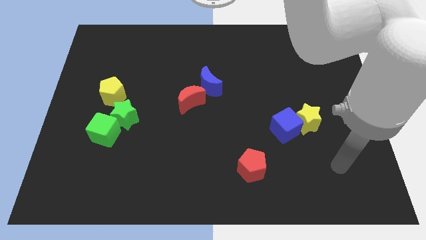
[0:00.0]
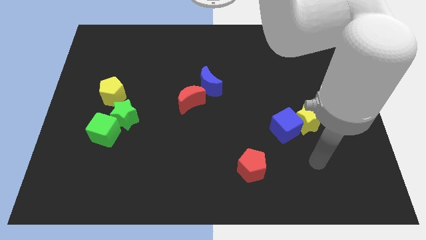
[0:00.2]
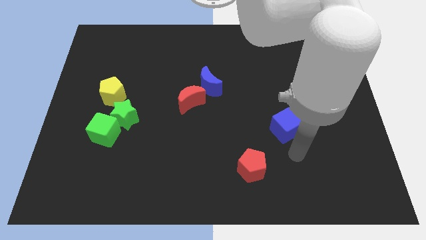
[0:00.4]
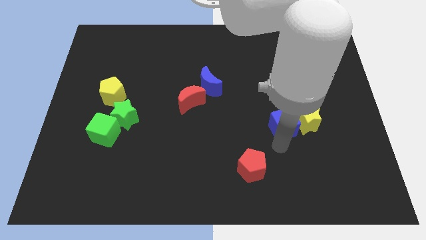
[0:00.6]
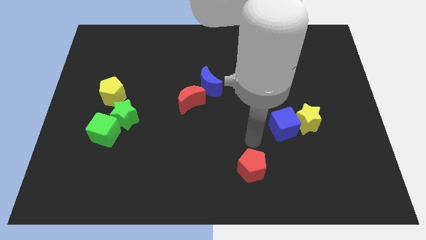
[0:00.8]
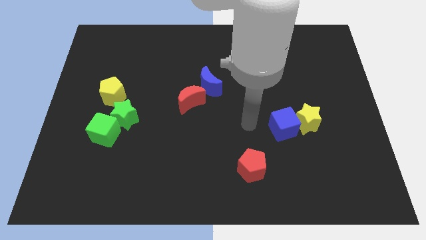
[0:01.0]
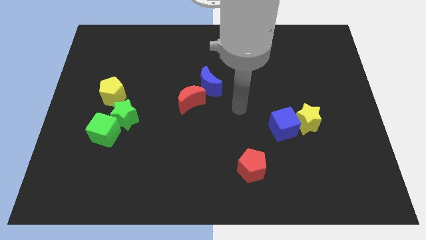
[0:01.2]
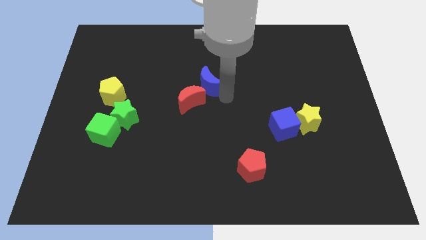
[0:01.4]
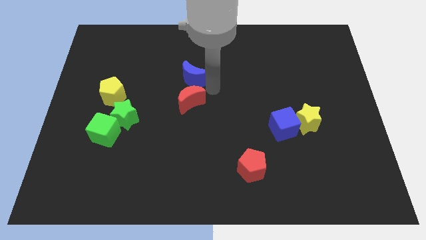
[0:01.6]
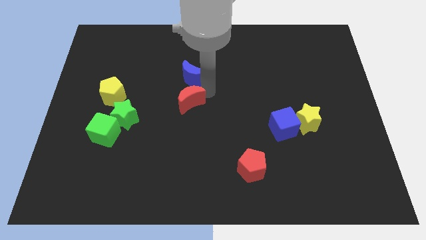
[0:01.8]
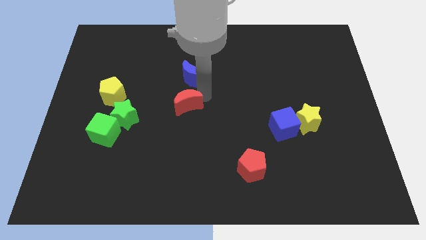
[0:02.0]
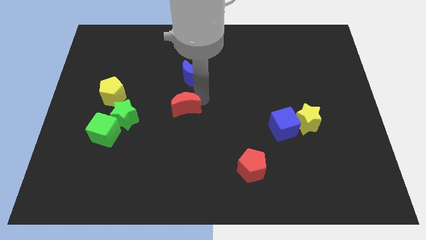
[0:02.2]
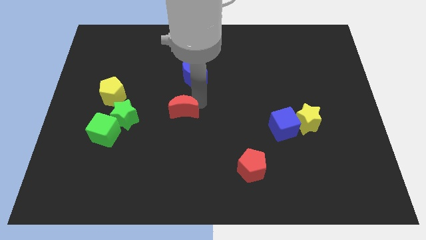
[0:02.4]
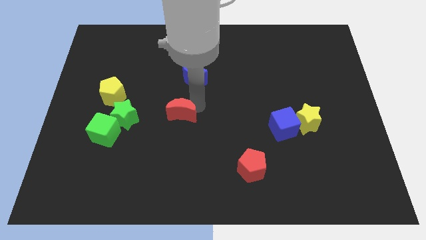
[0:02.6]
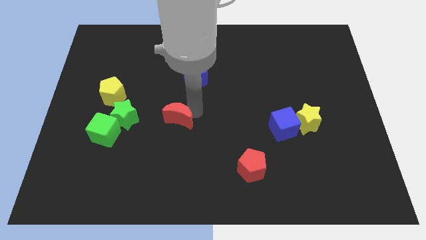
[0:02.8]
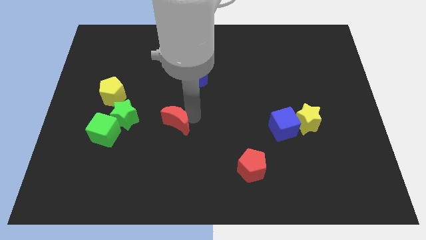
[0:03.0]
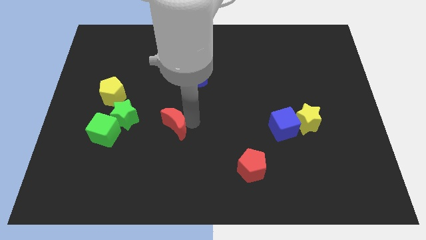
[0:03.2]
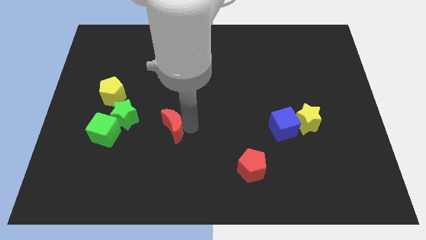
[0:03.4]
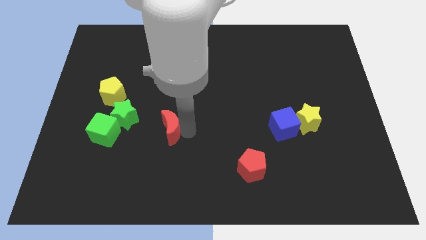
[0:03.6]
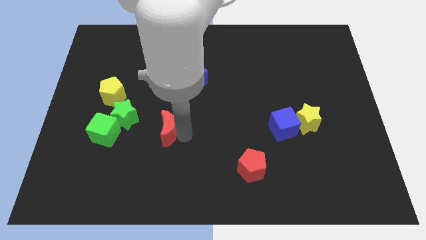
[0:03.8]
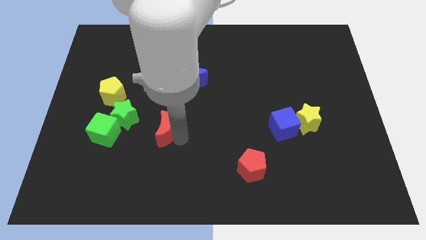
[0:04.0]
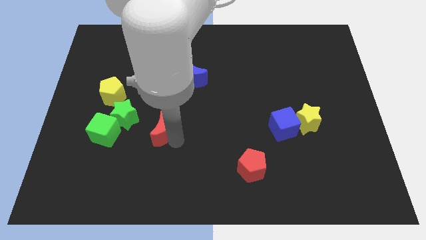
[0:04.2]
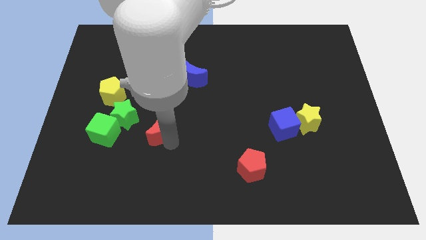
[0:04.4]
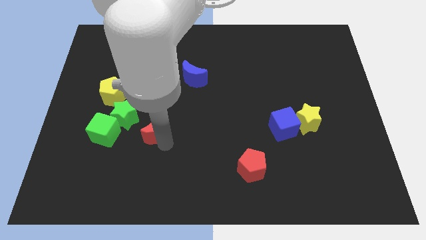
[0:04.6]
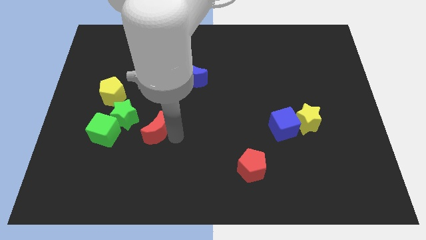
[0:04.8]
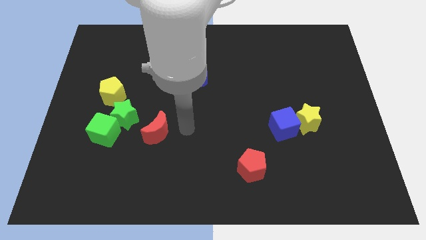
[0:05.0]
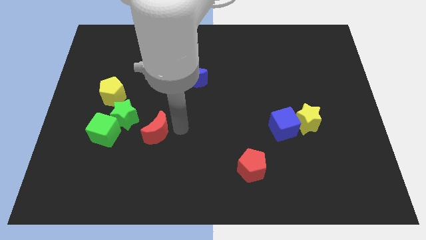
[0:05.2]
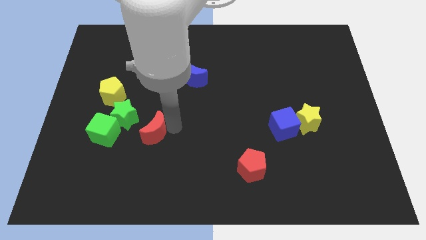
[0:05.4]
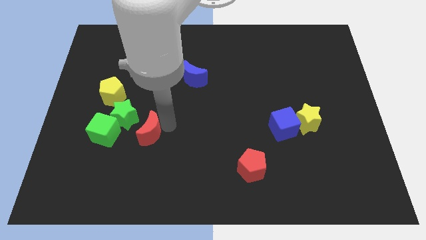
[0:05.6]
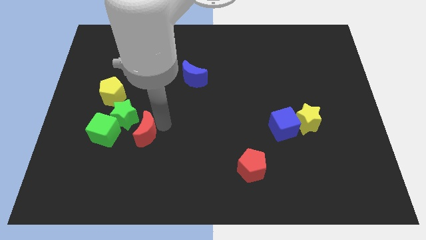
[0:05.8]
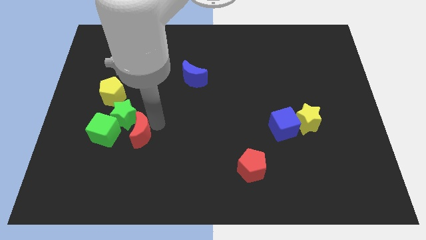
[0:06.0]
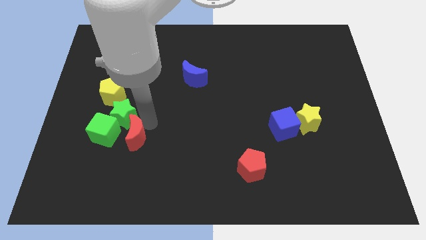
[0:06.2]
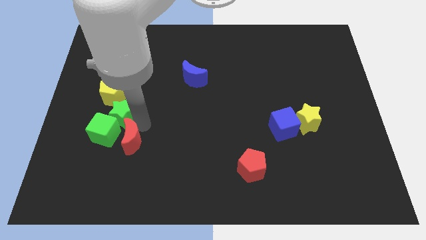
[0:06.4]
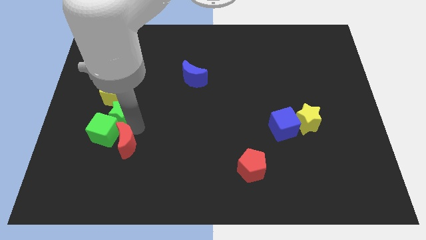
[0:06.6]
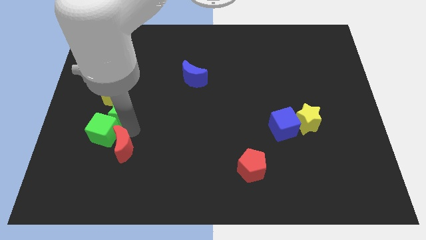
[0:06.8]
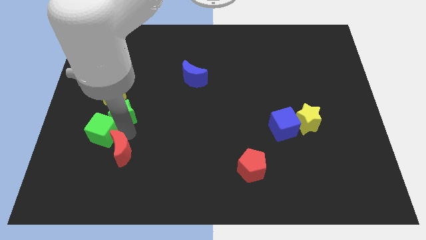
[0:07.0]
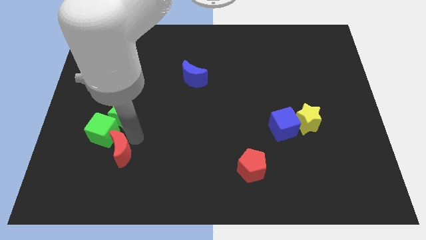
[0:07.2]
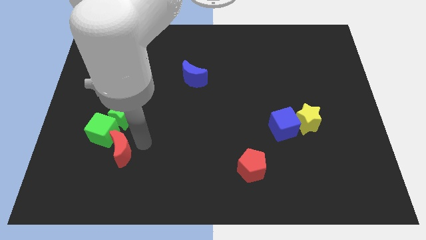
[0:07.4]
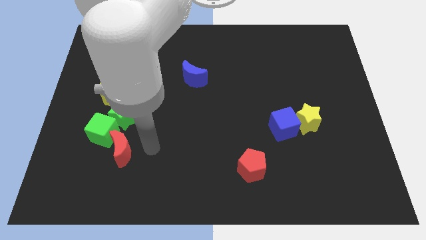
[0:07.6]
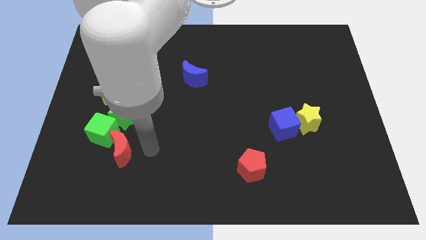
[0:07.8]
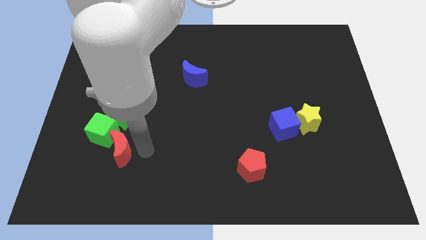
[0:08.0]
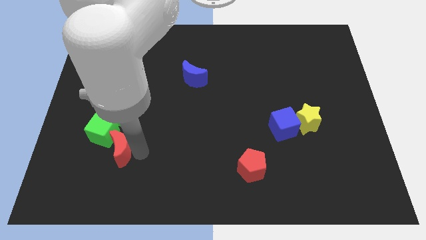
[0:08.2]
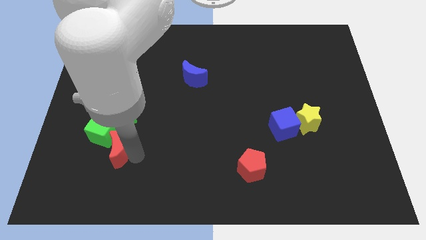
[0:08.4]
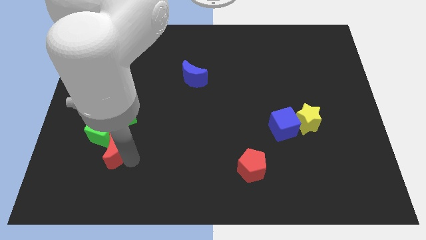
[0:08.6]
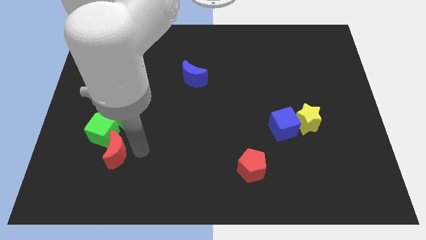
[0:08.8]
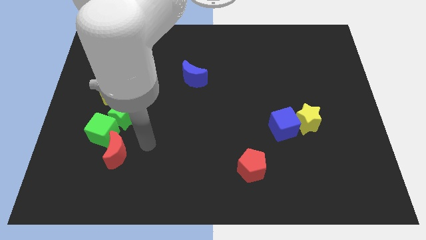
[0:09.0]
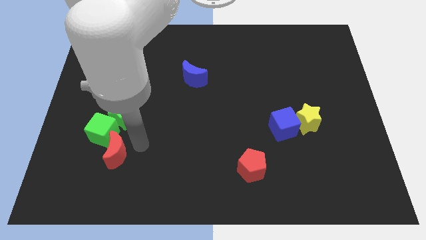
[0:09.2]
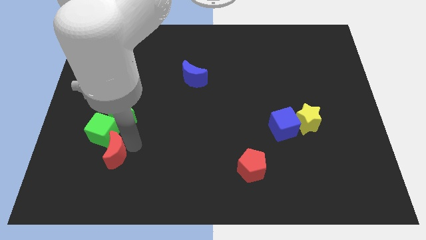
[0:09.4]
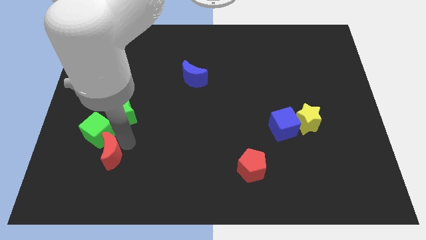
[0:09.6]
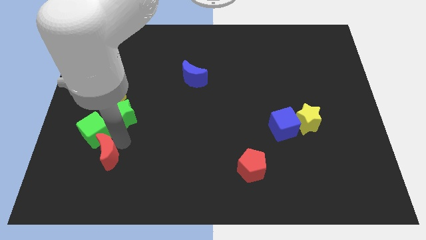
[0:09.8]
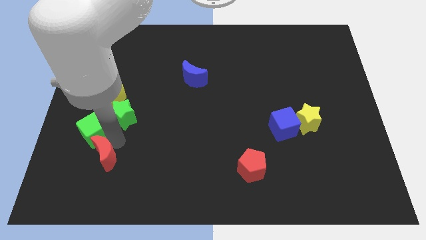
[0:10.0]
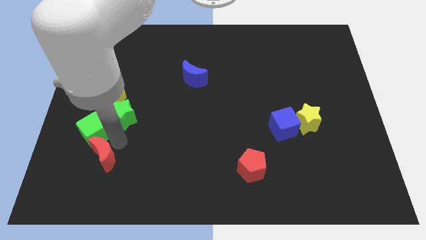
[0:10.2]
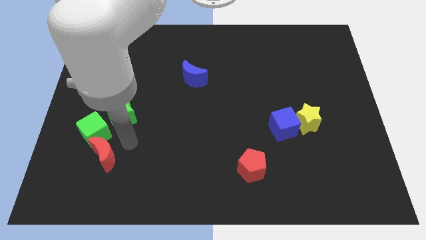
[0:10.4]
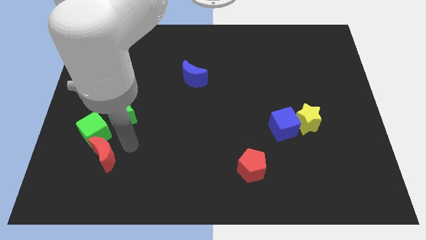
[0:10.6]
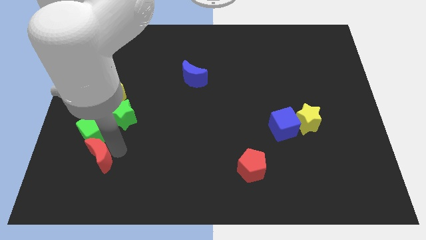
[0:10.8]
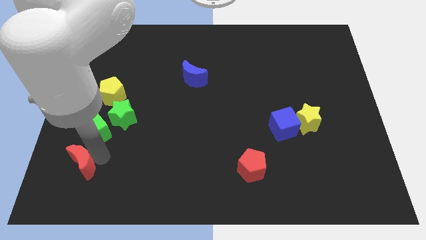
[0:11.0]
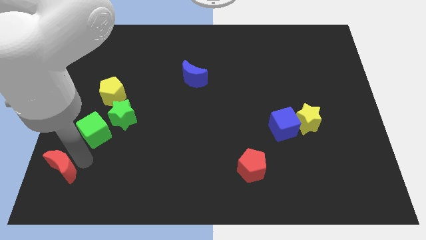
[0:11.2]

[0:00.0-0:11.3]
move the red moon to the bottom left corner
